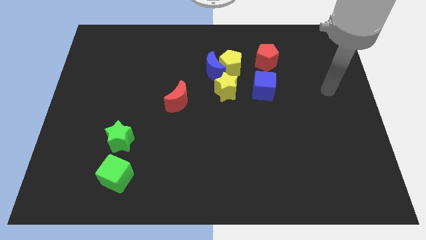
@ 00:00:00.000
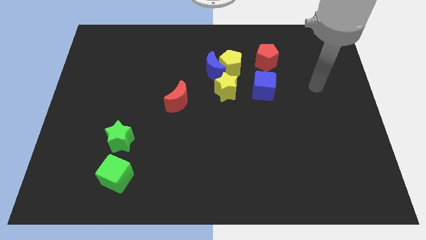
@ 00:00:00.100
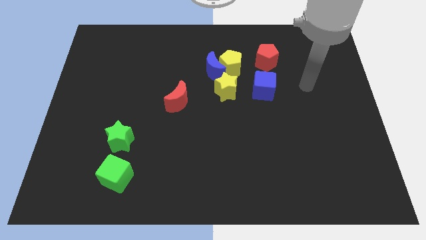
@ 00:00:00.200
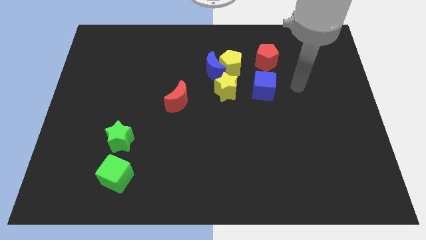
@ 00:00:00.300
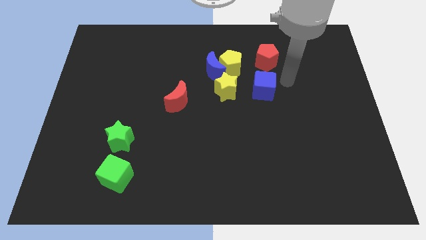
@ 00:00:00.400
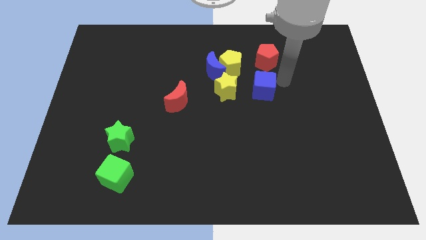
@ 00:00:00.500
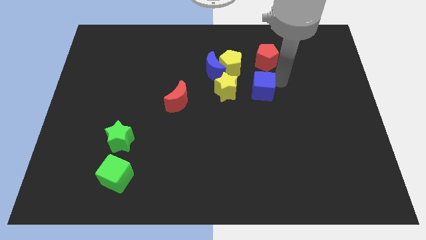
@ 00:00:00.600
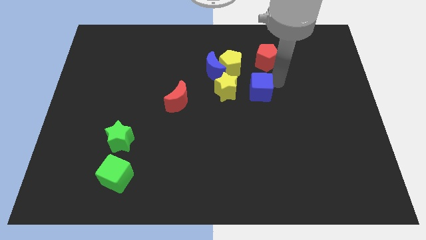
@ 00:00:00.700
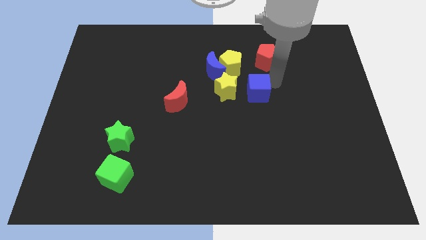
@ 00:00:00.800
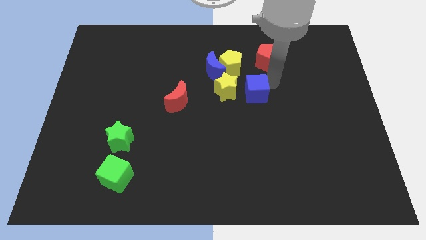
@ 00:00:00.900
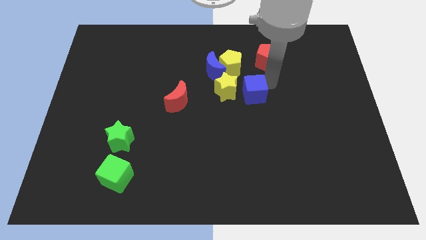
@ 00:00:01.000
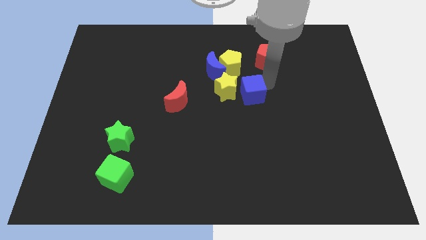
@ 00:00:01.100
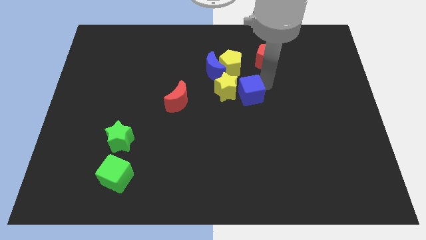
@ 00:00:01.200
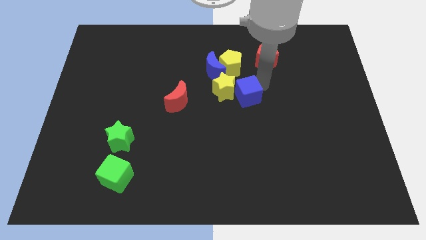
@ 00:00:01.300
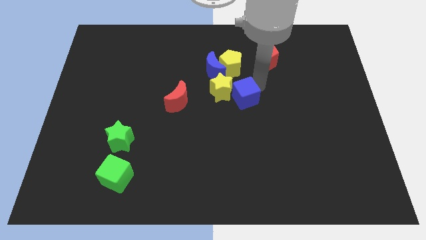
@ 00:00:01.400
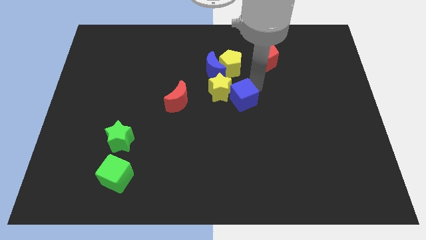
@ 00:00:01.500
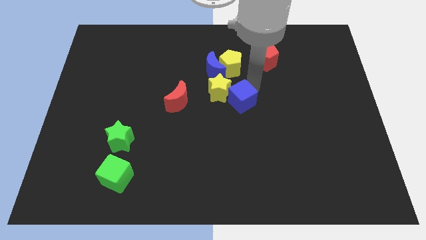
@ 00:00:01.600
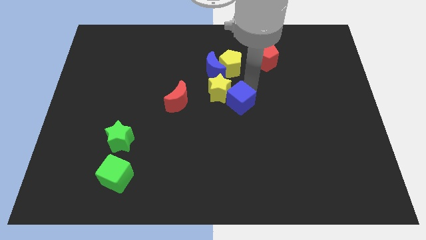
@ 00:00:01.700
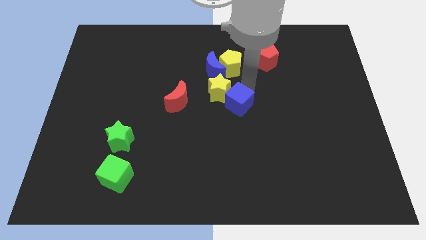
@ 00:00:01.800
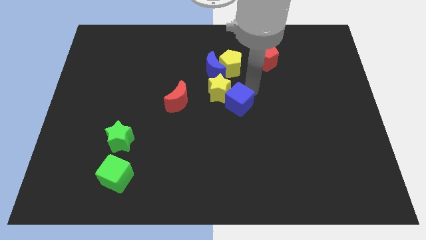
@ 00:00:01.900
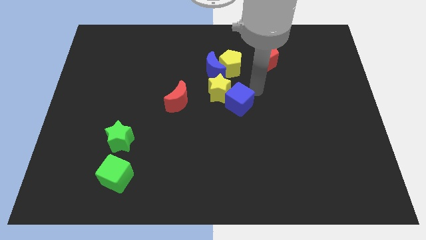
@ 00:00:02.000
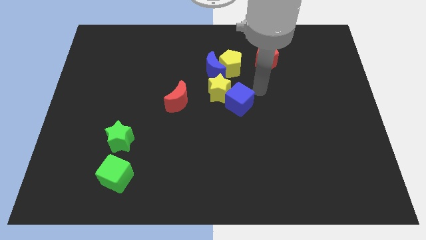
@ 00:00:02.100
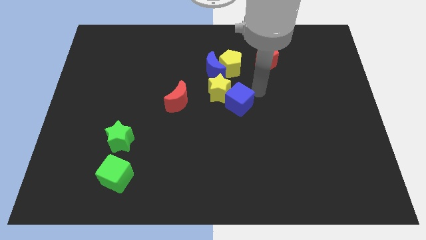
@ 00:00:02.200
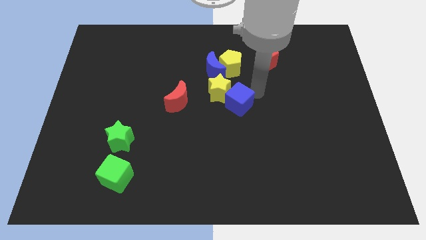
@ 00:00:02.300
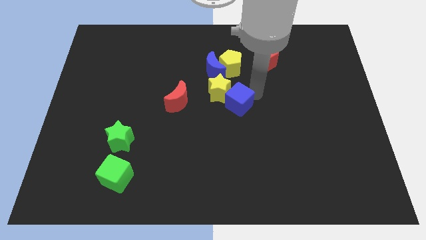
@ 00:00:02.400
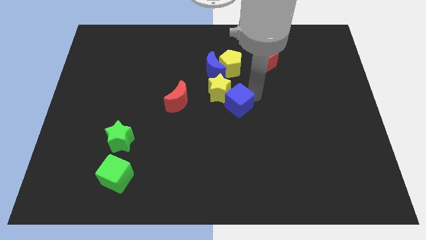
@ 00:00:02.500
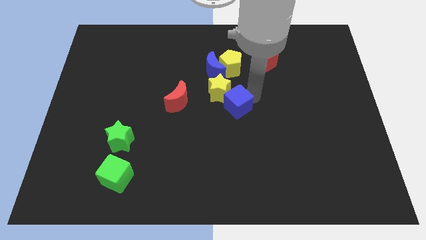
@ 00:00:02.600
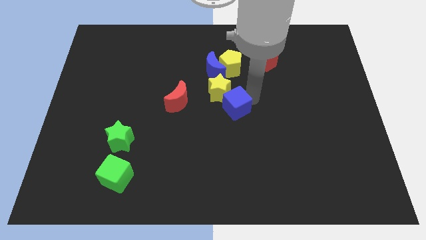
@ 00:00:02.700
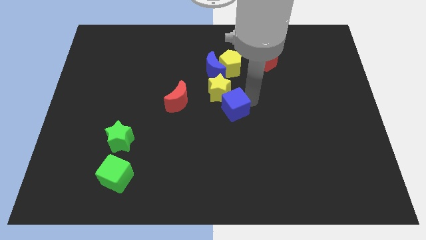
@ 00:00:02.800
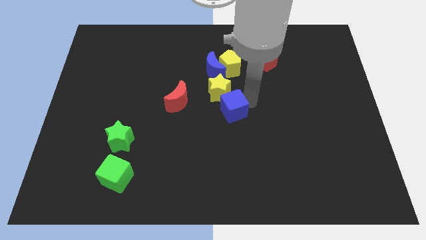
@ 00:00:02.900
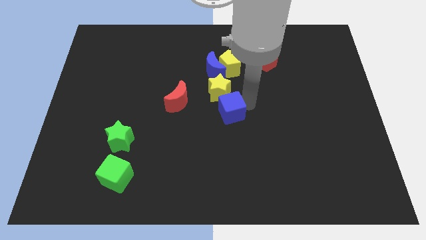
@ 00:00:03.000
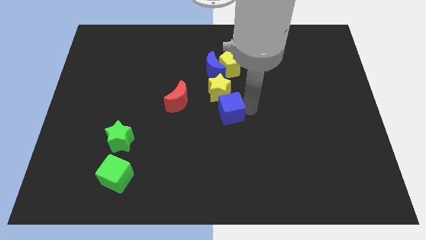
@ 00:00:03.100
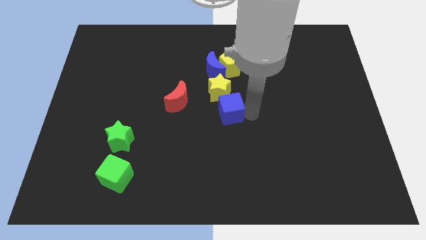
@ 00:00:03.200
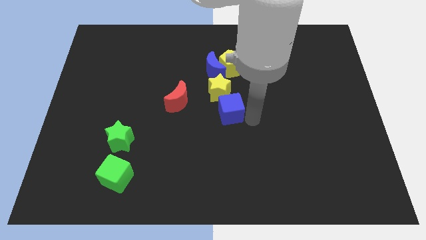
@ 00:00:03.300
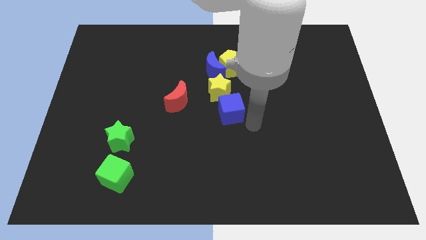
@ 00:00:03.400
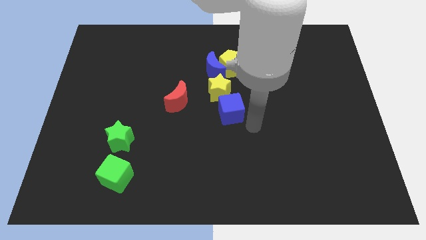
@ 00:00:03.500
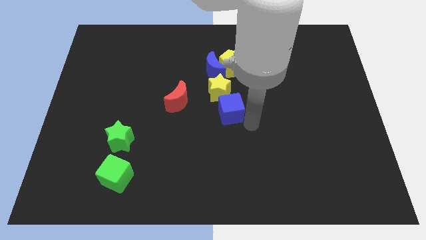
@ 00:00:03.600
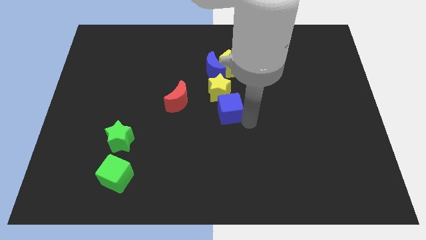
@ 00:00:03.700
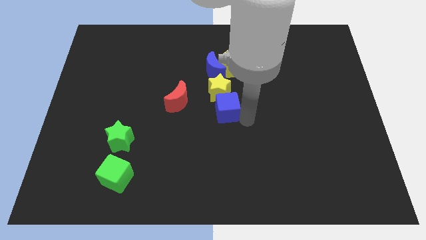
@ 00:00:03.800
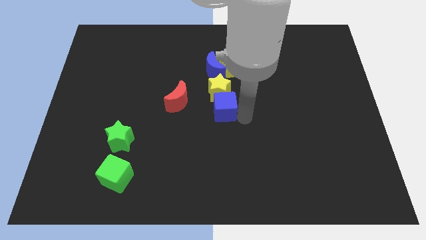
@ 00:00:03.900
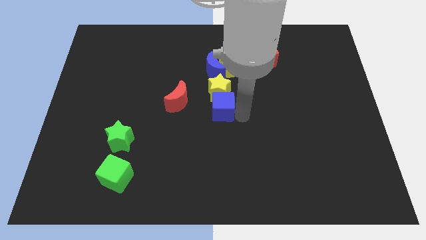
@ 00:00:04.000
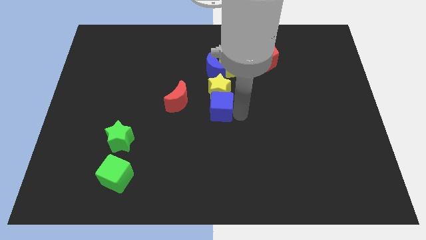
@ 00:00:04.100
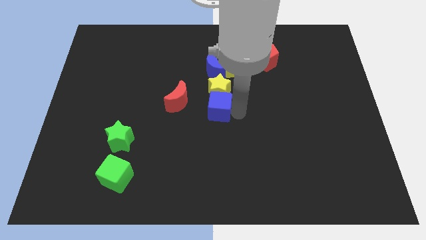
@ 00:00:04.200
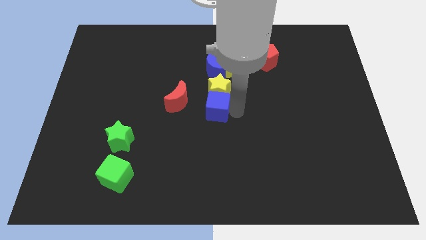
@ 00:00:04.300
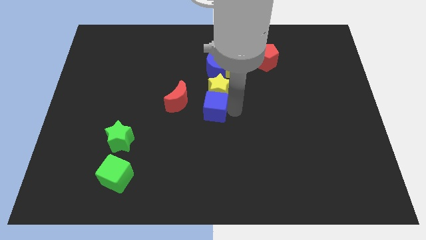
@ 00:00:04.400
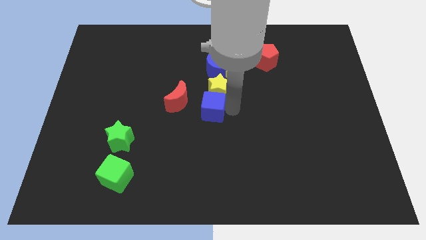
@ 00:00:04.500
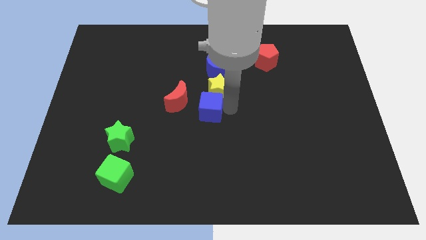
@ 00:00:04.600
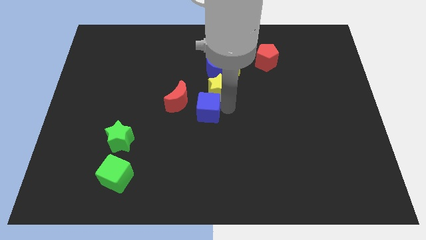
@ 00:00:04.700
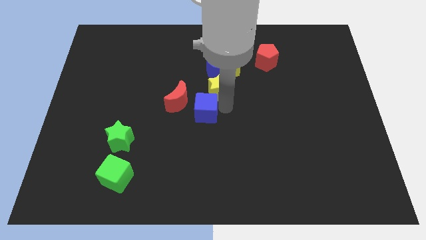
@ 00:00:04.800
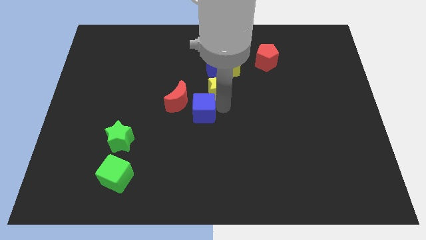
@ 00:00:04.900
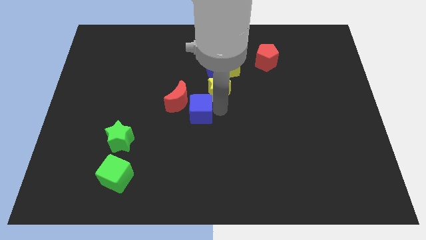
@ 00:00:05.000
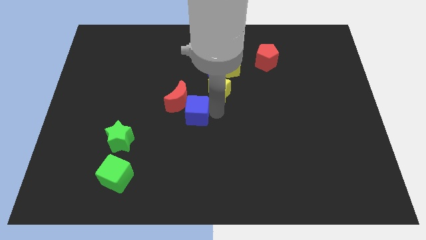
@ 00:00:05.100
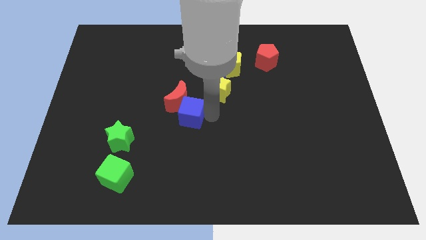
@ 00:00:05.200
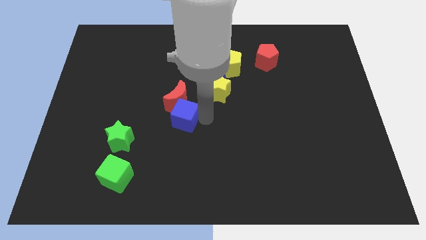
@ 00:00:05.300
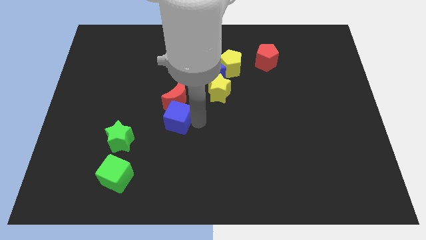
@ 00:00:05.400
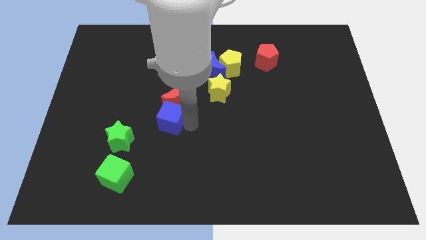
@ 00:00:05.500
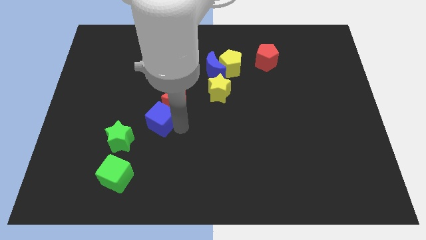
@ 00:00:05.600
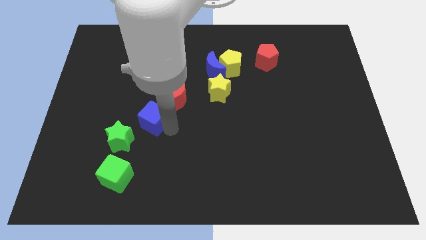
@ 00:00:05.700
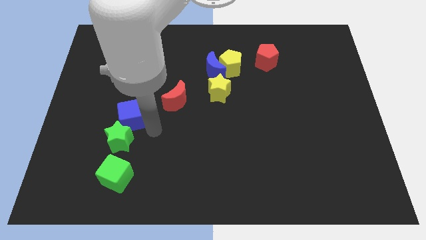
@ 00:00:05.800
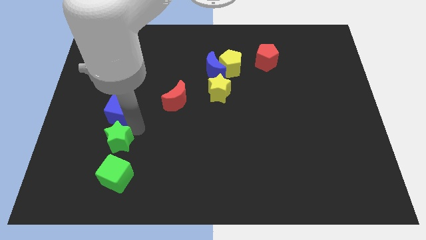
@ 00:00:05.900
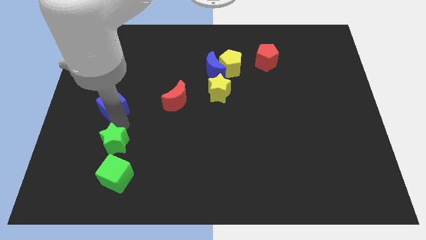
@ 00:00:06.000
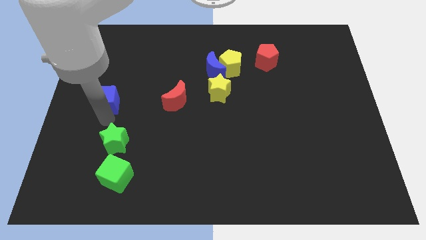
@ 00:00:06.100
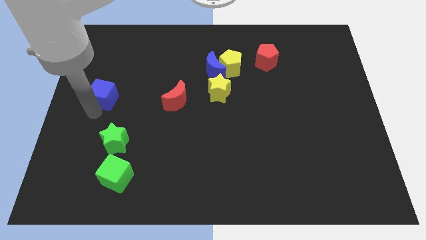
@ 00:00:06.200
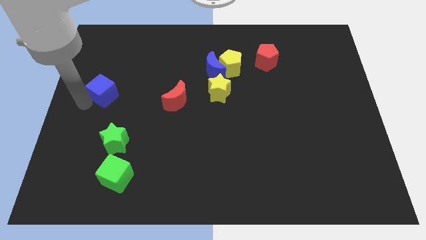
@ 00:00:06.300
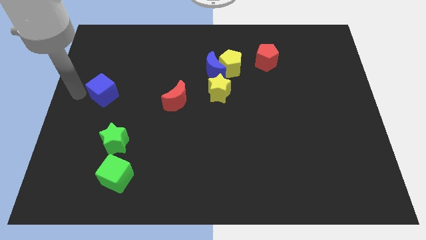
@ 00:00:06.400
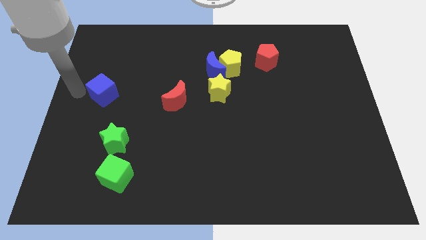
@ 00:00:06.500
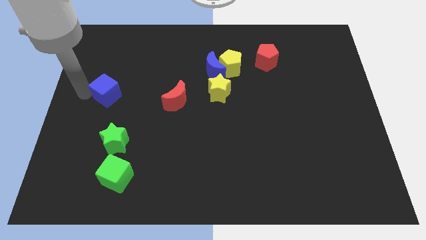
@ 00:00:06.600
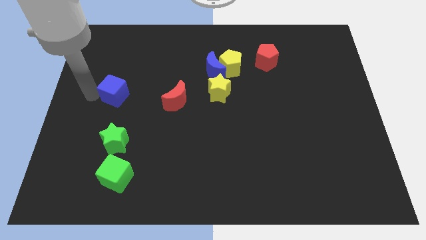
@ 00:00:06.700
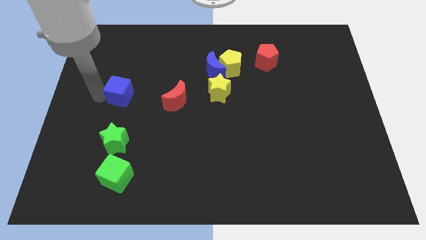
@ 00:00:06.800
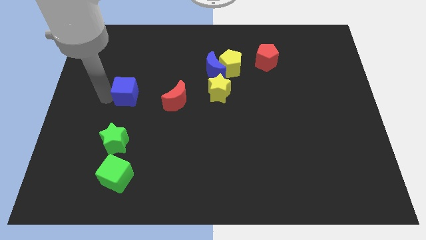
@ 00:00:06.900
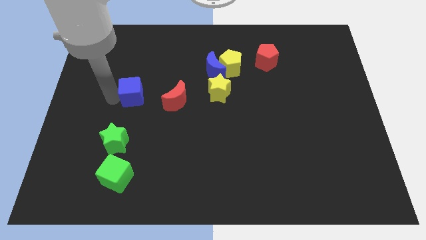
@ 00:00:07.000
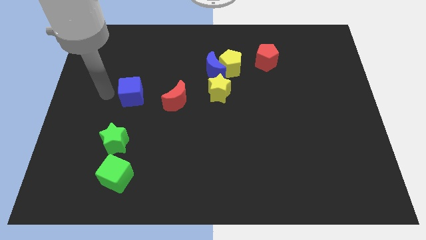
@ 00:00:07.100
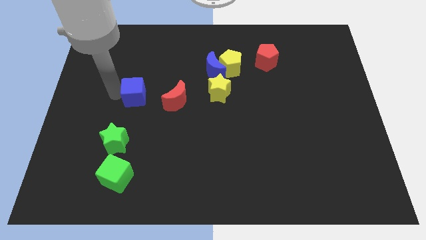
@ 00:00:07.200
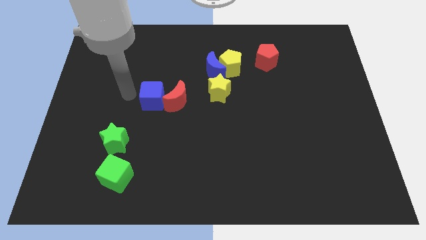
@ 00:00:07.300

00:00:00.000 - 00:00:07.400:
move the blue cube to the top left side of the red moon
